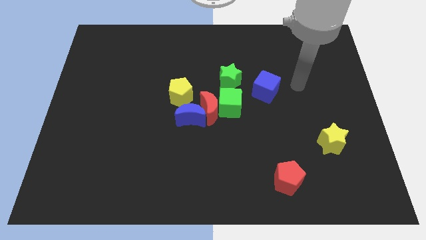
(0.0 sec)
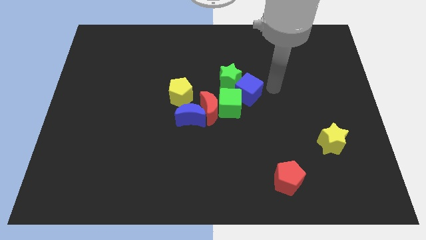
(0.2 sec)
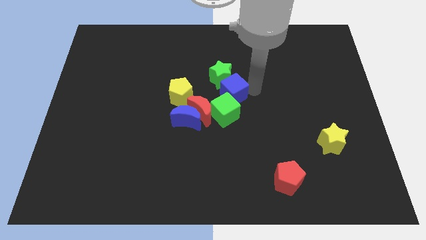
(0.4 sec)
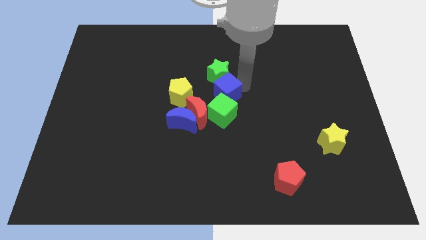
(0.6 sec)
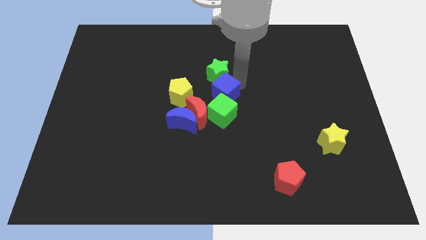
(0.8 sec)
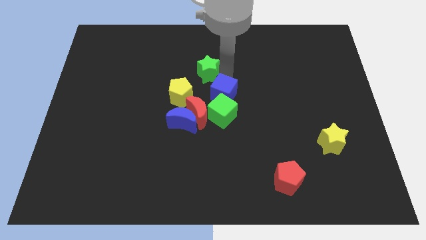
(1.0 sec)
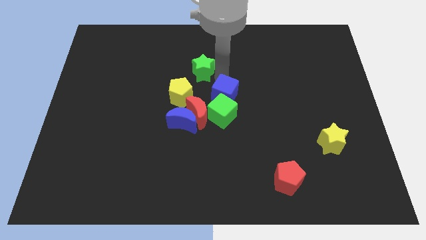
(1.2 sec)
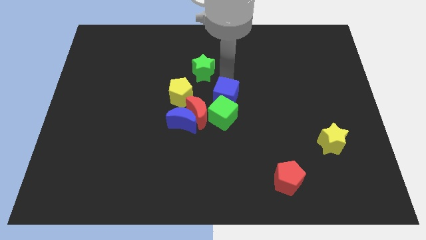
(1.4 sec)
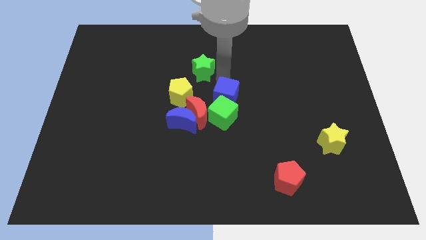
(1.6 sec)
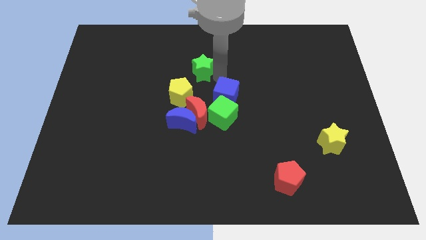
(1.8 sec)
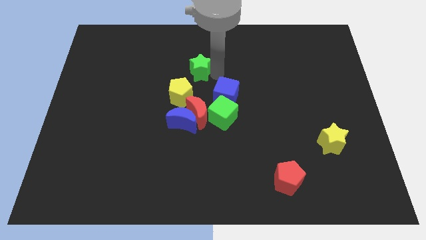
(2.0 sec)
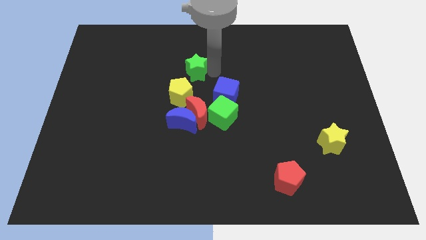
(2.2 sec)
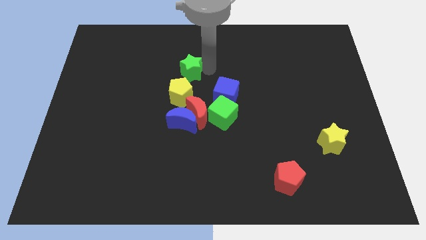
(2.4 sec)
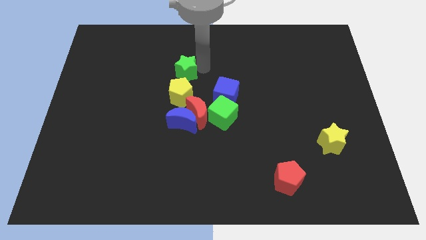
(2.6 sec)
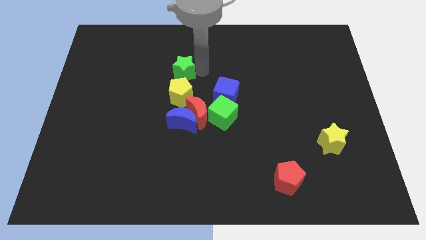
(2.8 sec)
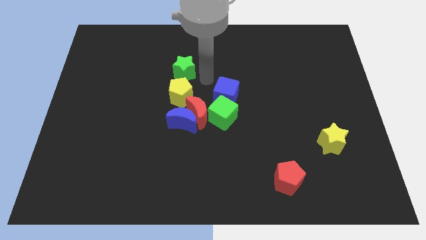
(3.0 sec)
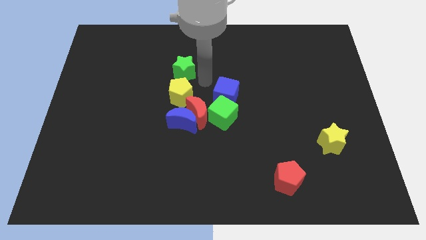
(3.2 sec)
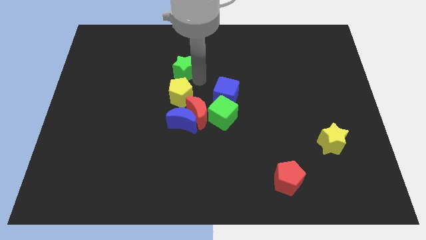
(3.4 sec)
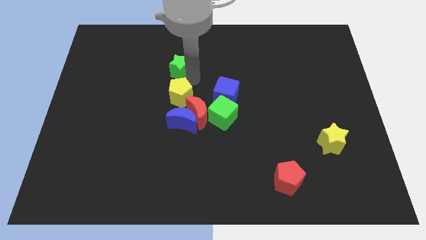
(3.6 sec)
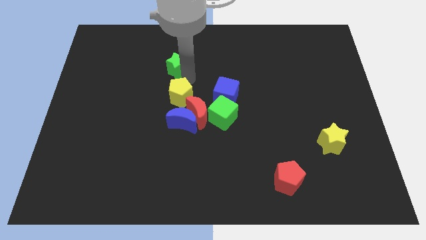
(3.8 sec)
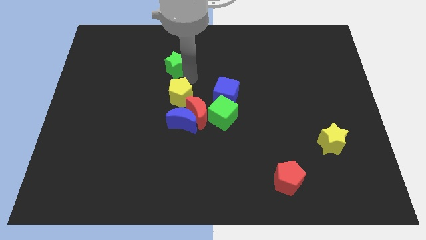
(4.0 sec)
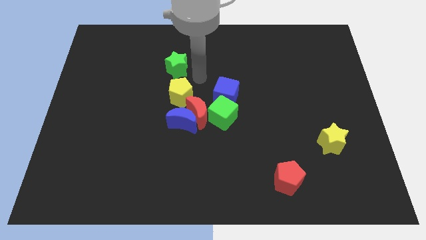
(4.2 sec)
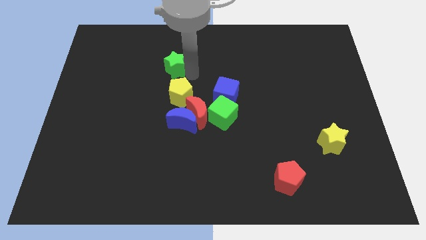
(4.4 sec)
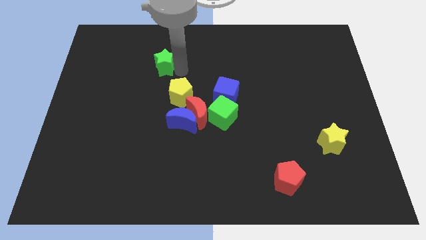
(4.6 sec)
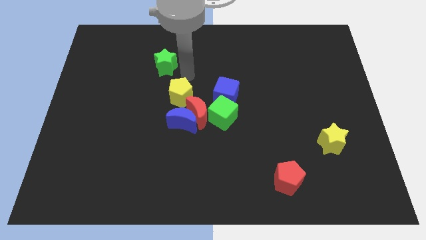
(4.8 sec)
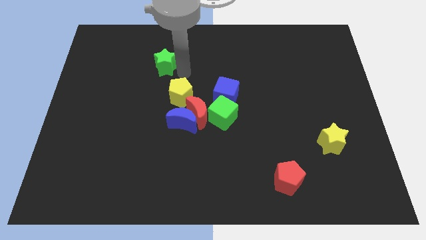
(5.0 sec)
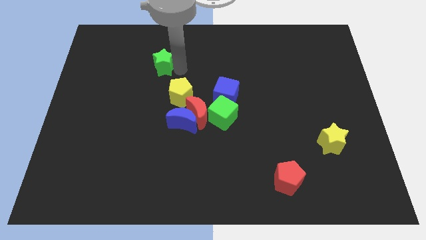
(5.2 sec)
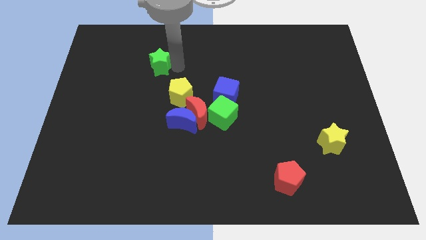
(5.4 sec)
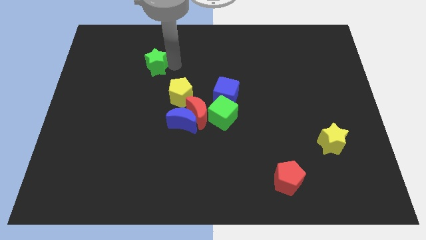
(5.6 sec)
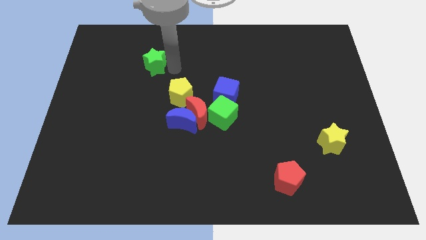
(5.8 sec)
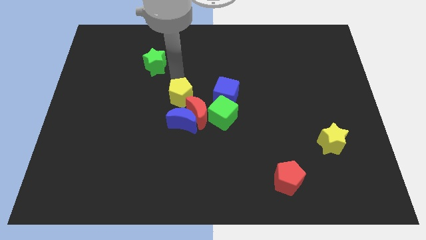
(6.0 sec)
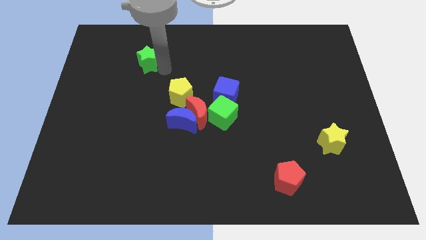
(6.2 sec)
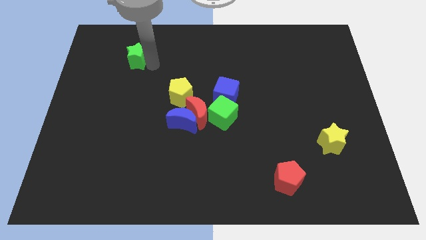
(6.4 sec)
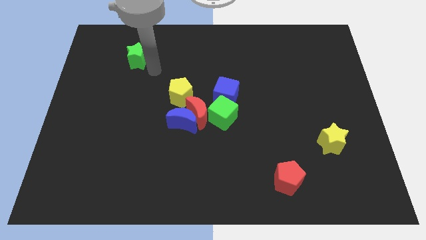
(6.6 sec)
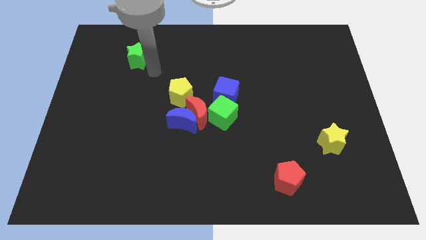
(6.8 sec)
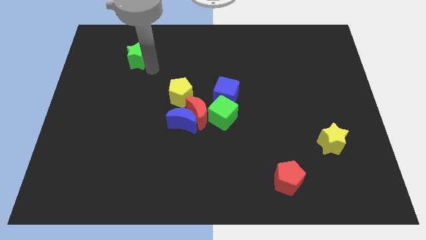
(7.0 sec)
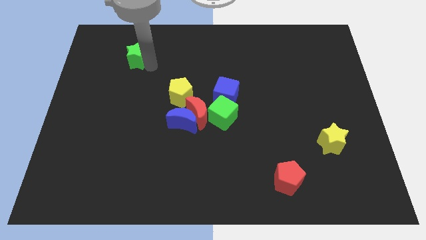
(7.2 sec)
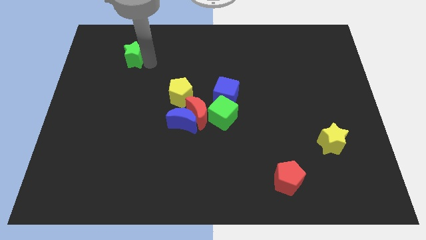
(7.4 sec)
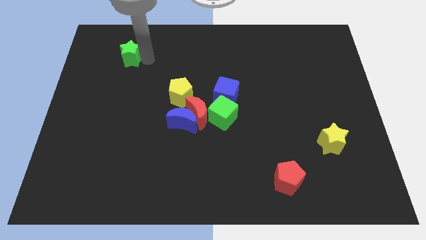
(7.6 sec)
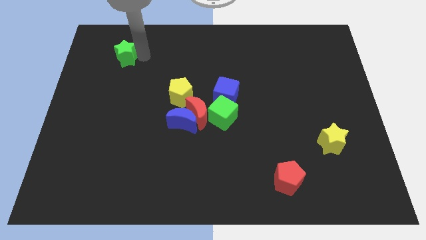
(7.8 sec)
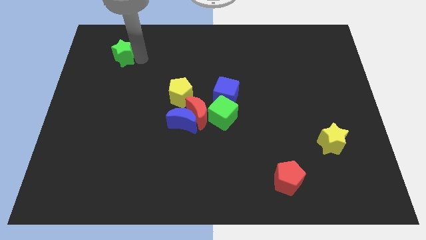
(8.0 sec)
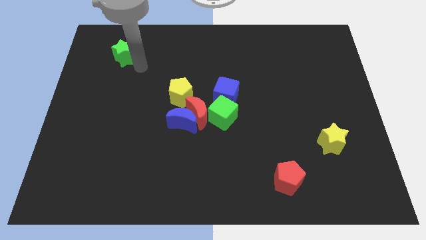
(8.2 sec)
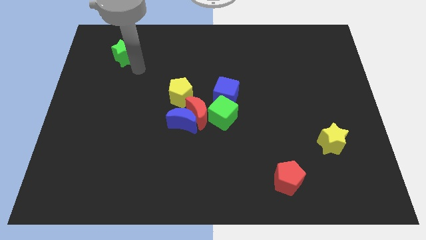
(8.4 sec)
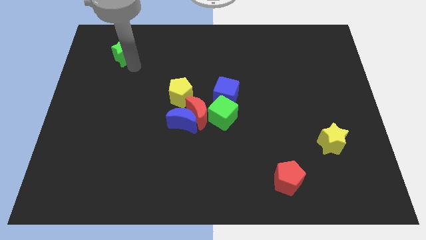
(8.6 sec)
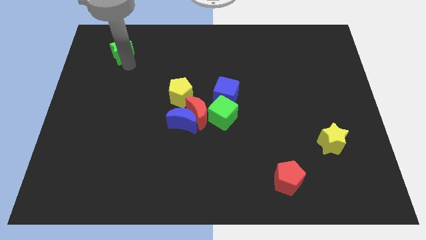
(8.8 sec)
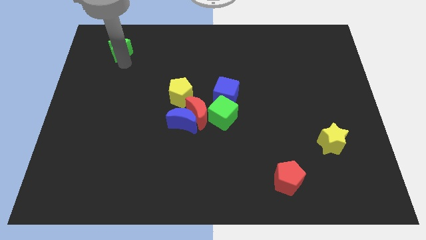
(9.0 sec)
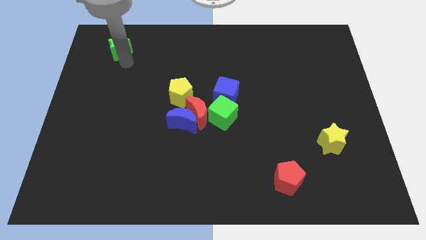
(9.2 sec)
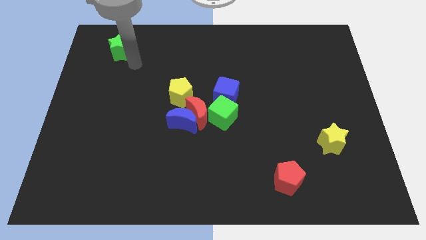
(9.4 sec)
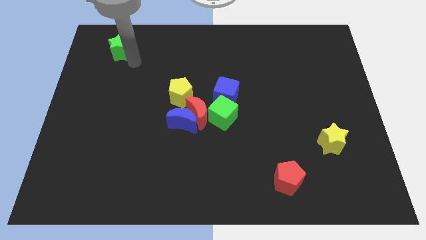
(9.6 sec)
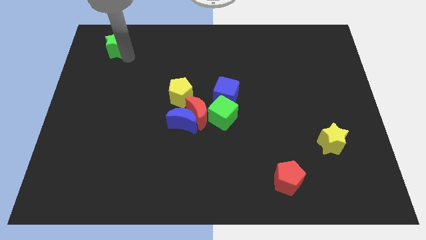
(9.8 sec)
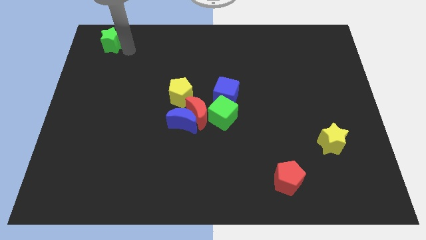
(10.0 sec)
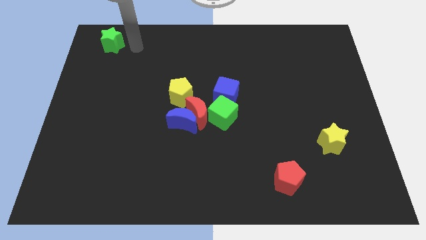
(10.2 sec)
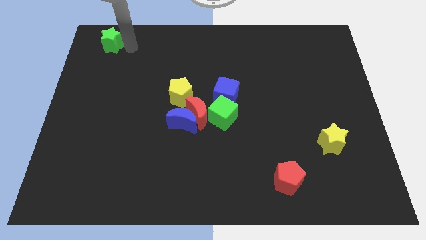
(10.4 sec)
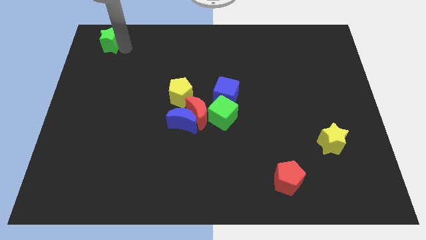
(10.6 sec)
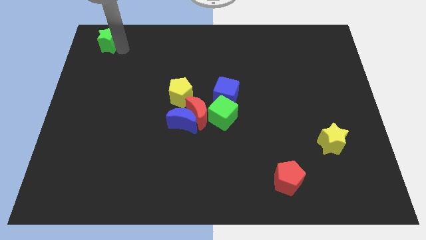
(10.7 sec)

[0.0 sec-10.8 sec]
push the green star to the upper left corner
